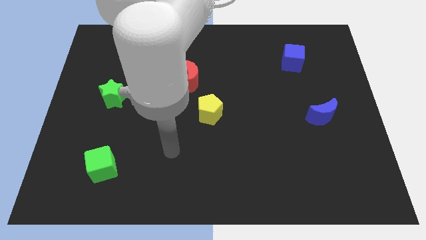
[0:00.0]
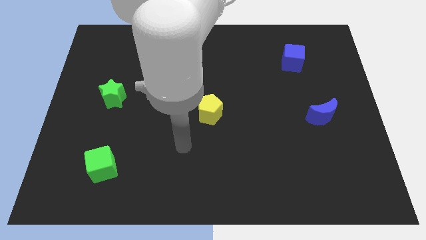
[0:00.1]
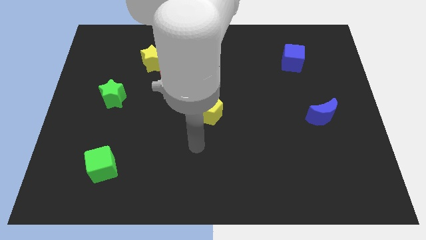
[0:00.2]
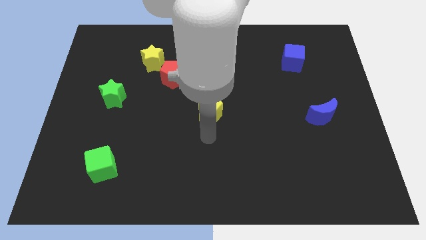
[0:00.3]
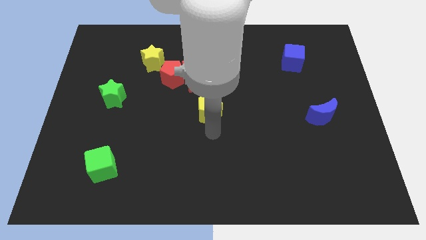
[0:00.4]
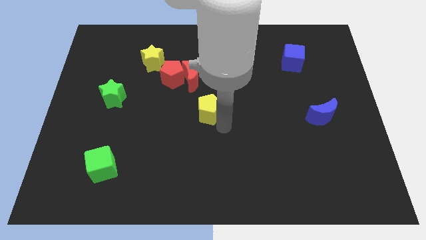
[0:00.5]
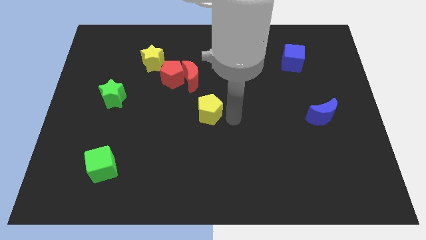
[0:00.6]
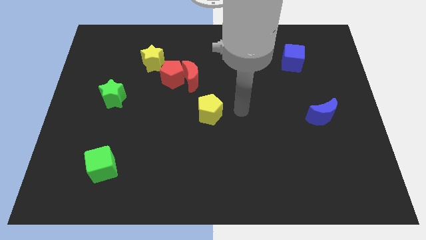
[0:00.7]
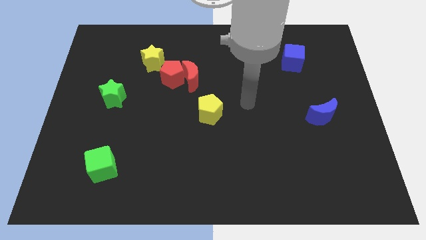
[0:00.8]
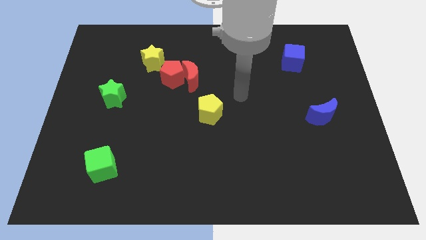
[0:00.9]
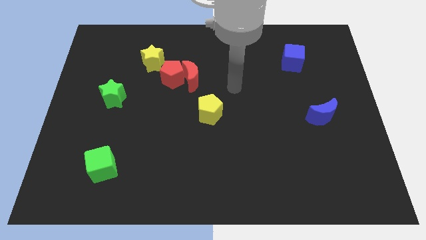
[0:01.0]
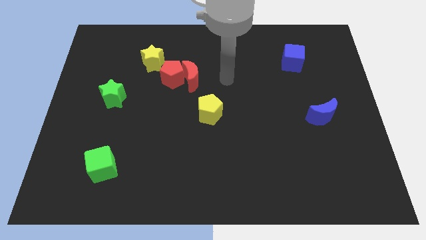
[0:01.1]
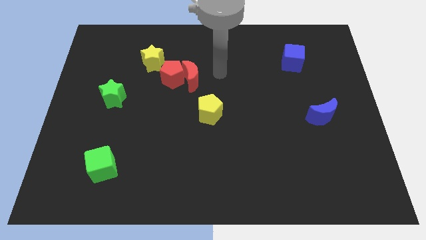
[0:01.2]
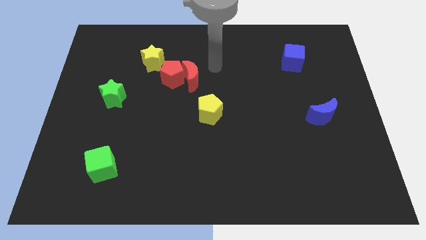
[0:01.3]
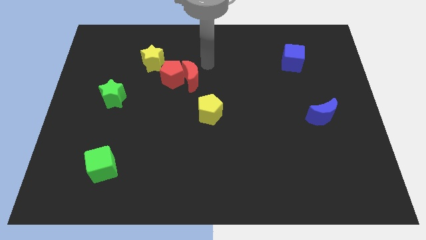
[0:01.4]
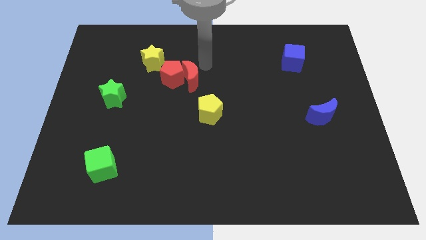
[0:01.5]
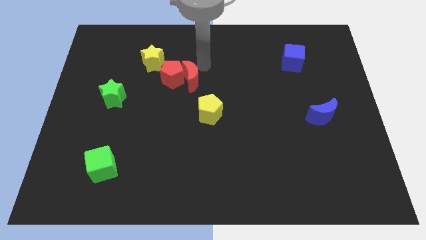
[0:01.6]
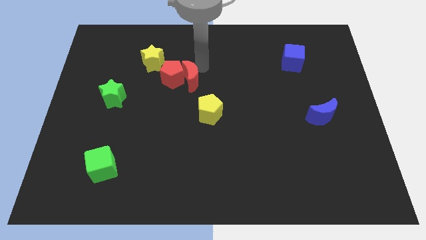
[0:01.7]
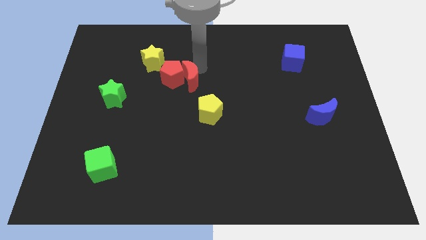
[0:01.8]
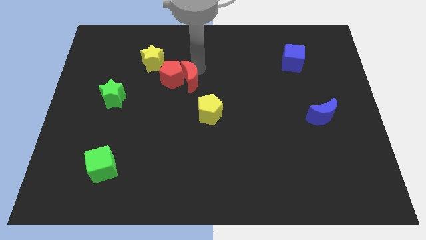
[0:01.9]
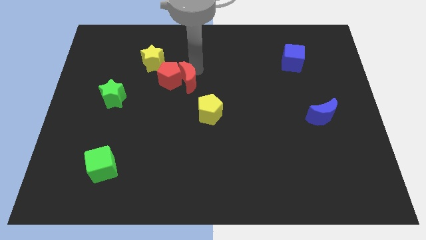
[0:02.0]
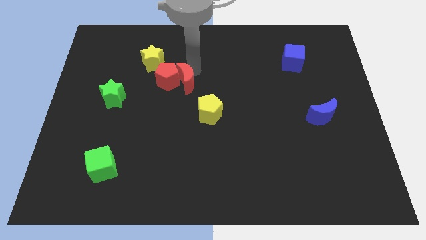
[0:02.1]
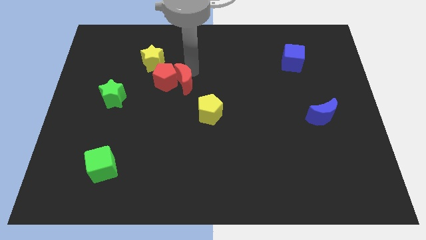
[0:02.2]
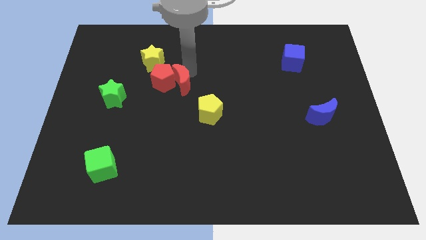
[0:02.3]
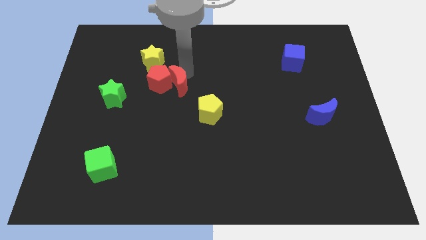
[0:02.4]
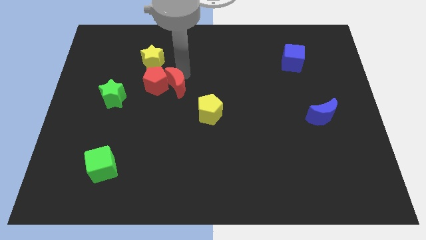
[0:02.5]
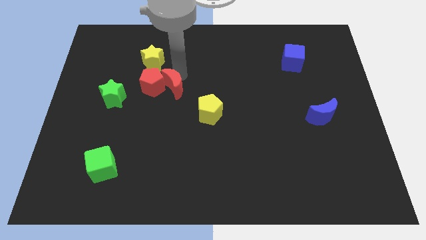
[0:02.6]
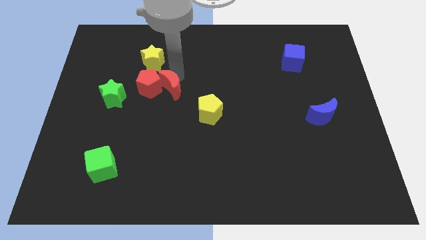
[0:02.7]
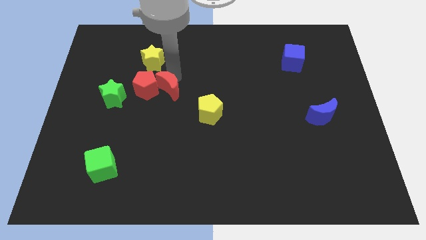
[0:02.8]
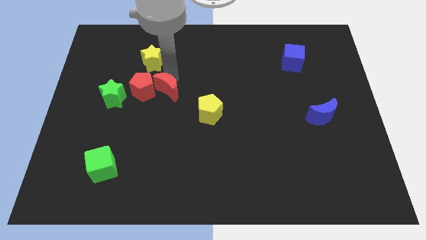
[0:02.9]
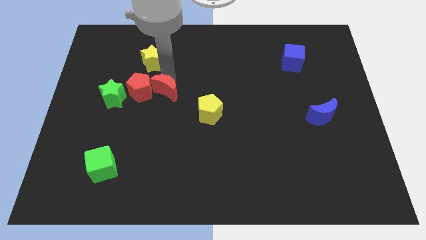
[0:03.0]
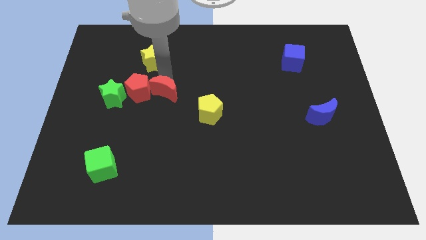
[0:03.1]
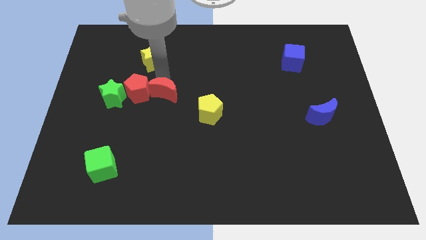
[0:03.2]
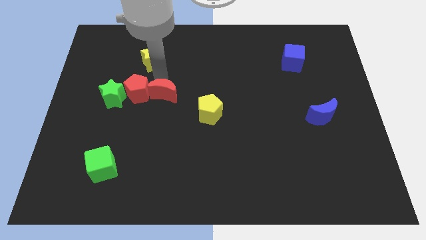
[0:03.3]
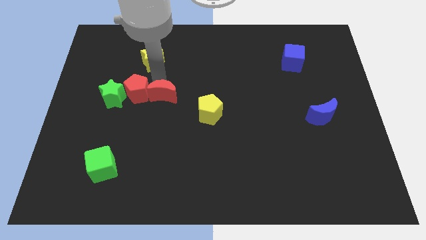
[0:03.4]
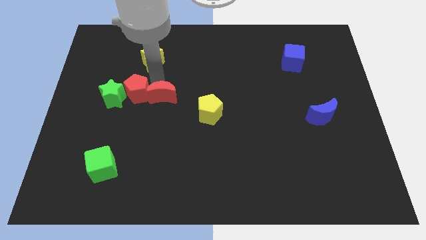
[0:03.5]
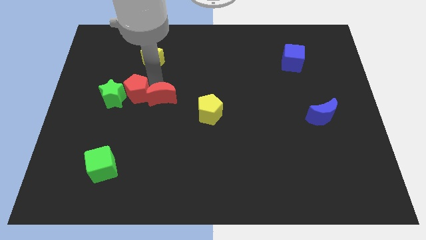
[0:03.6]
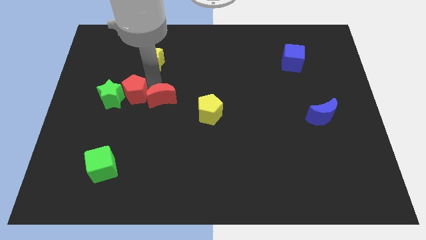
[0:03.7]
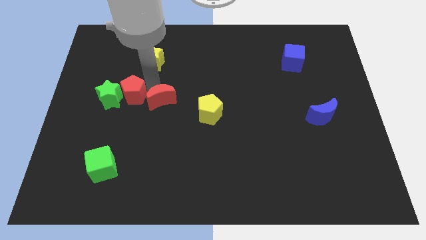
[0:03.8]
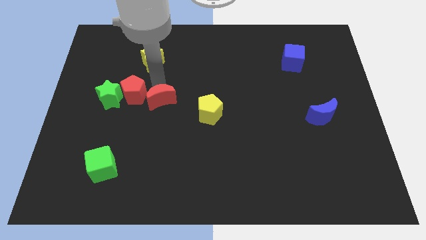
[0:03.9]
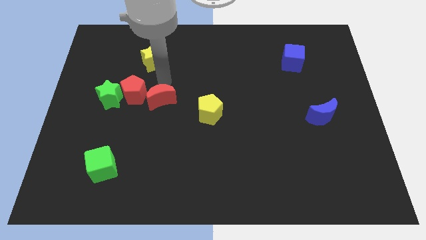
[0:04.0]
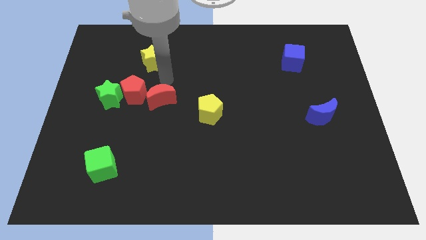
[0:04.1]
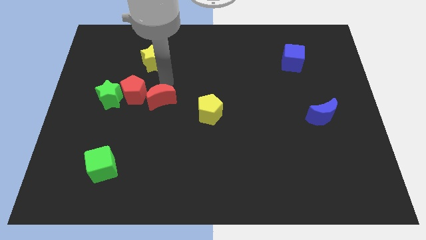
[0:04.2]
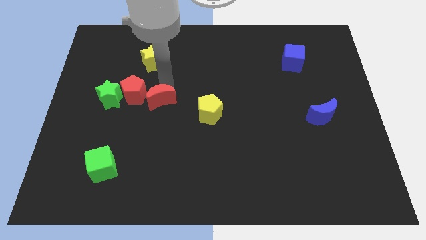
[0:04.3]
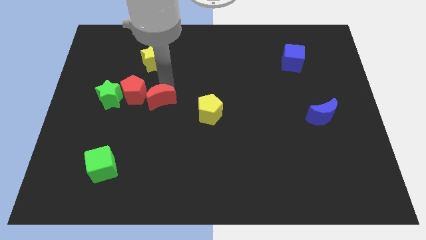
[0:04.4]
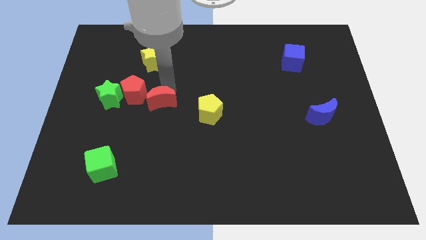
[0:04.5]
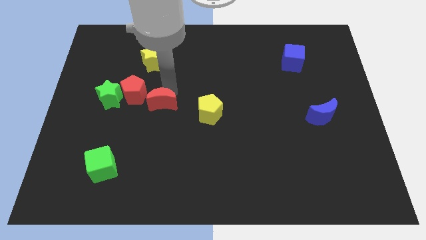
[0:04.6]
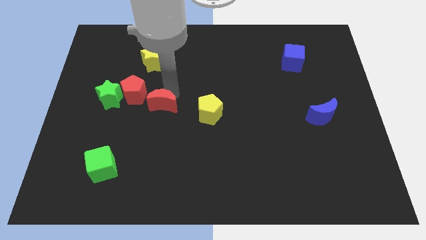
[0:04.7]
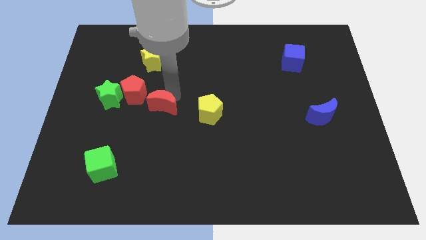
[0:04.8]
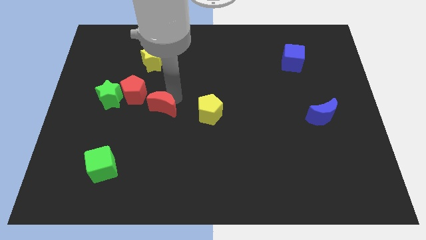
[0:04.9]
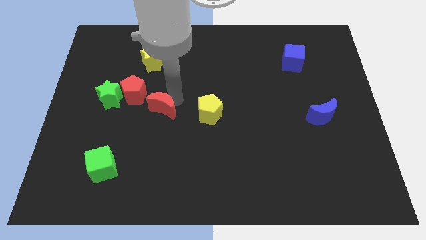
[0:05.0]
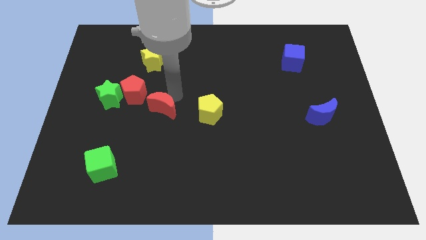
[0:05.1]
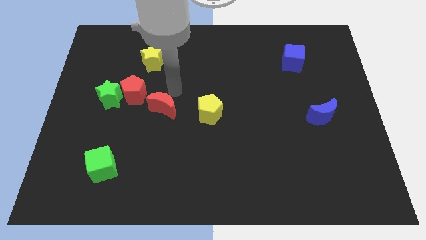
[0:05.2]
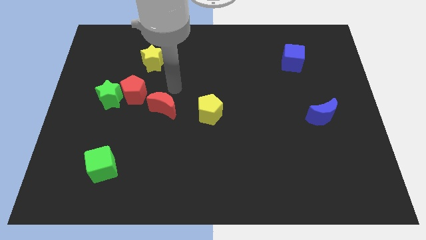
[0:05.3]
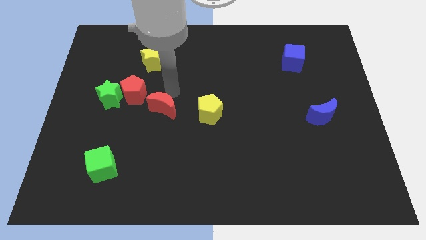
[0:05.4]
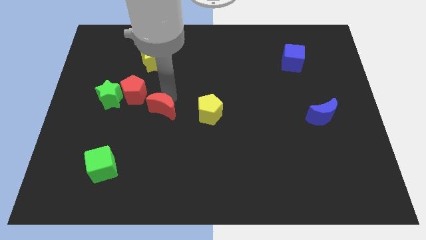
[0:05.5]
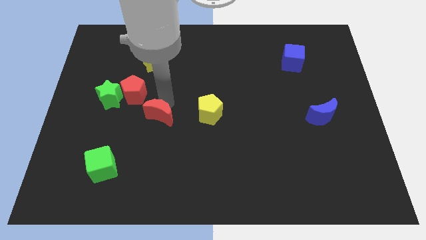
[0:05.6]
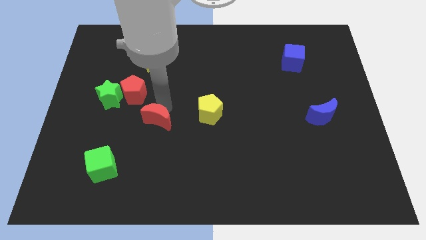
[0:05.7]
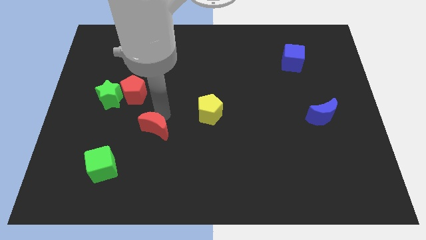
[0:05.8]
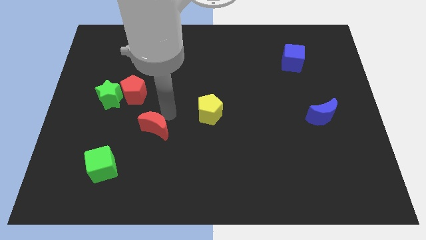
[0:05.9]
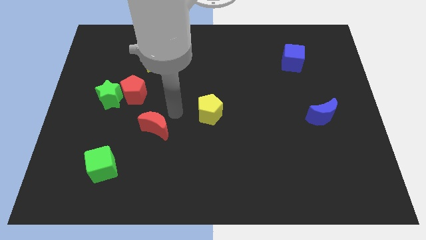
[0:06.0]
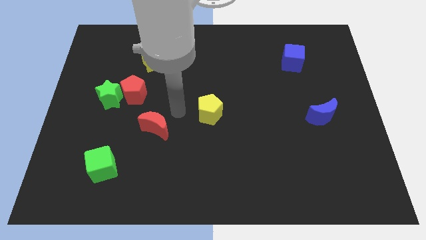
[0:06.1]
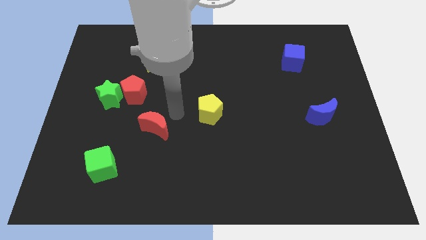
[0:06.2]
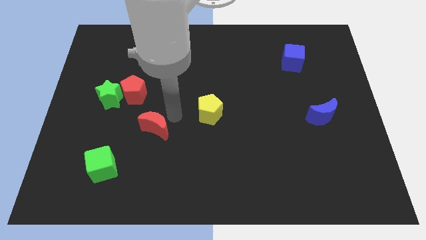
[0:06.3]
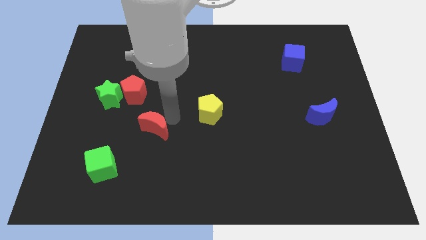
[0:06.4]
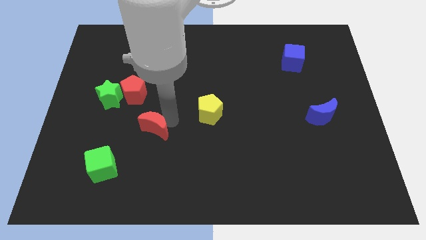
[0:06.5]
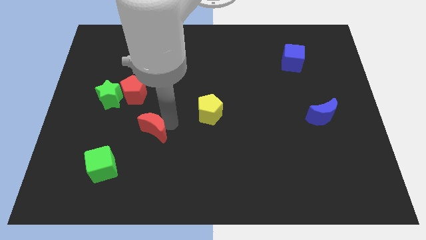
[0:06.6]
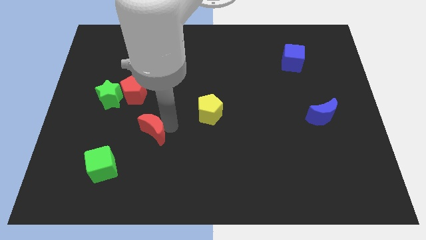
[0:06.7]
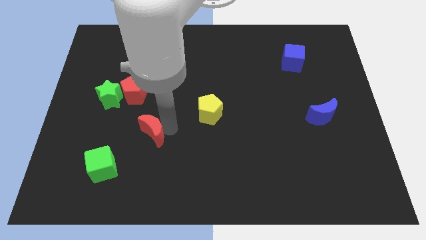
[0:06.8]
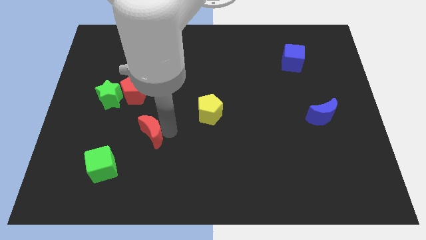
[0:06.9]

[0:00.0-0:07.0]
put the red moon to the top right side of the green cube

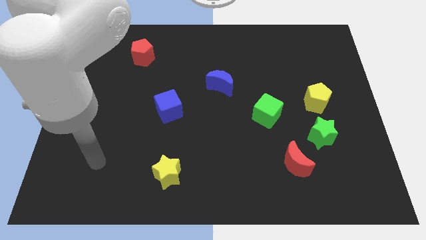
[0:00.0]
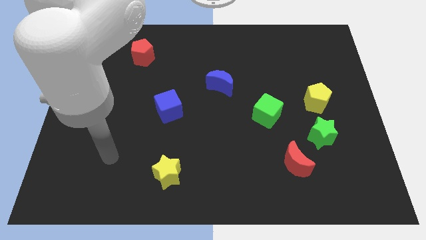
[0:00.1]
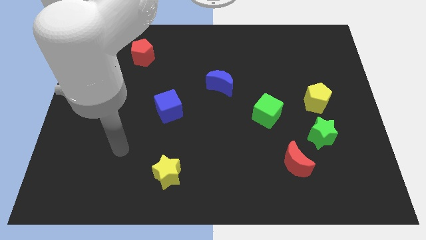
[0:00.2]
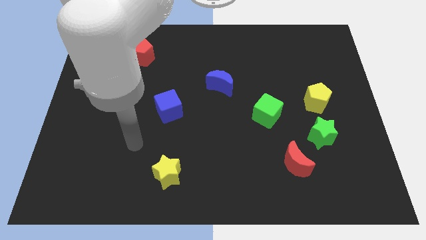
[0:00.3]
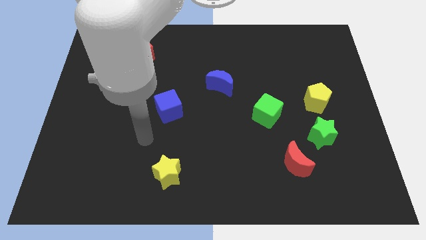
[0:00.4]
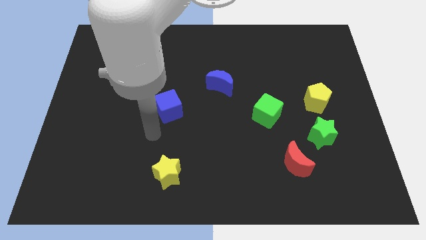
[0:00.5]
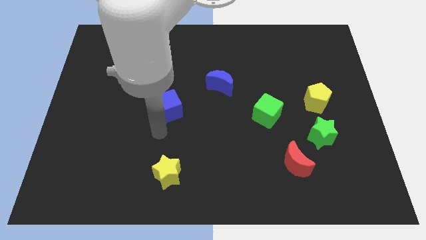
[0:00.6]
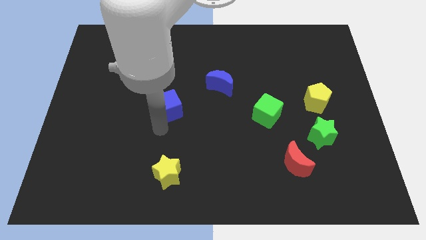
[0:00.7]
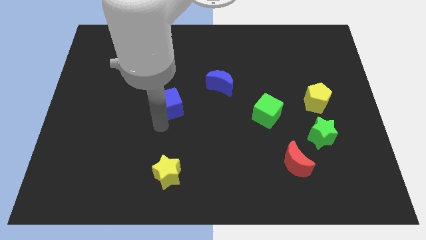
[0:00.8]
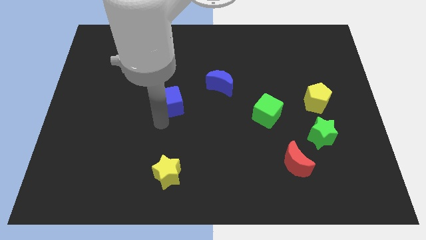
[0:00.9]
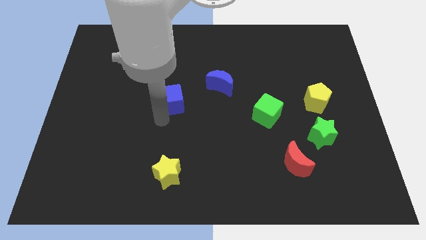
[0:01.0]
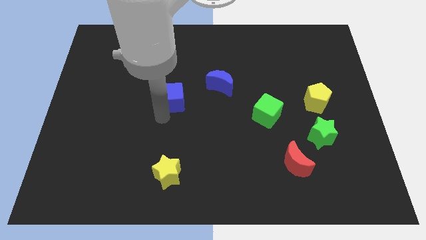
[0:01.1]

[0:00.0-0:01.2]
put the blue cube left of the blue moon
